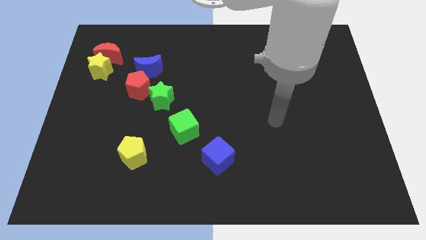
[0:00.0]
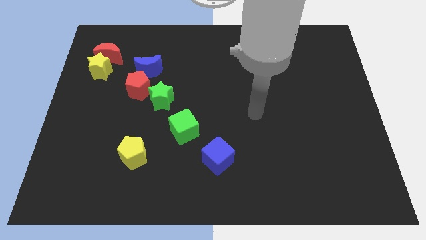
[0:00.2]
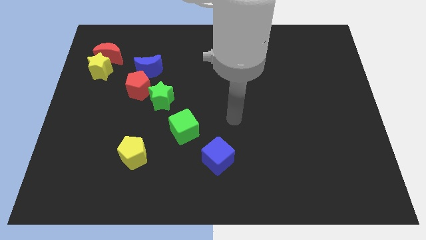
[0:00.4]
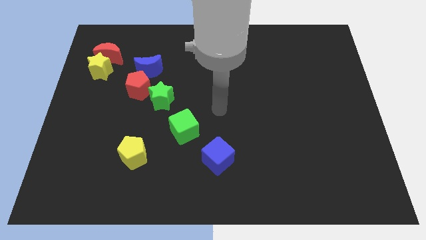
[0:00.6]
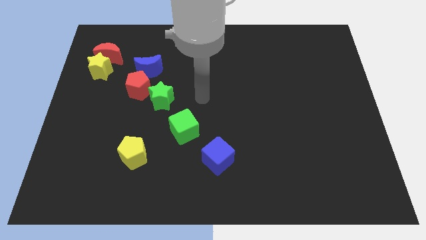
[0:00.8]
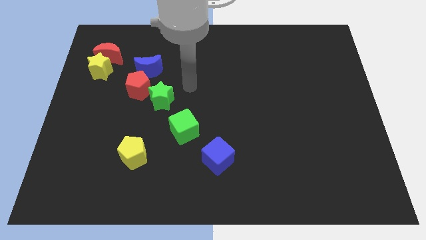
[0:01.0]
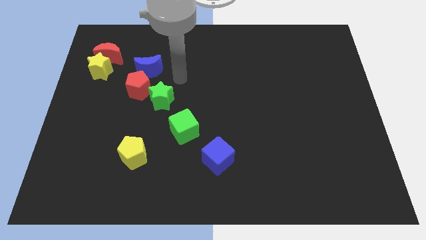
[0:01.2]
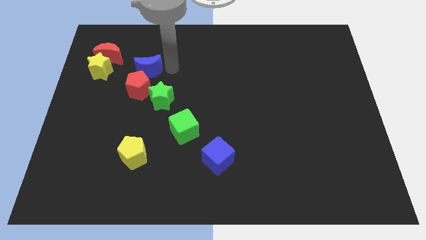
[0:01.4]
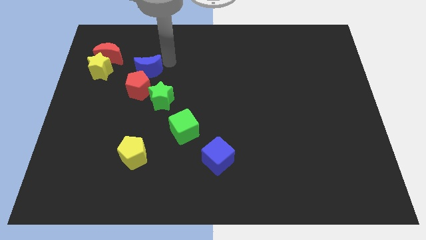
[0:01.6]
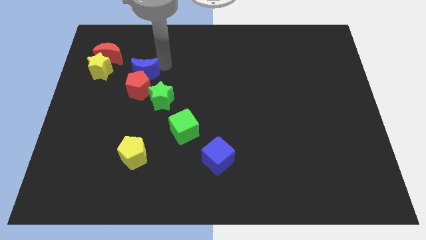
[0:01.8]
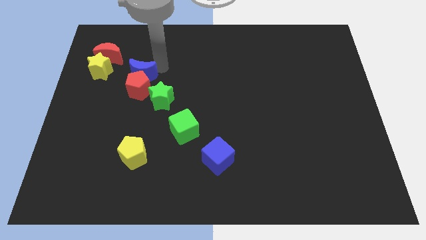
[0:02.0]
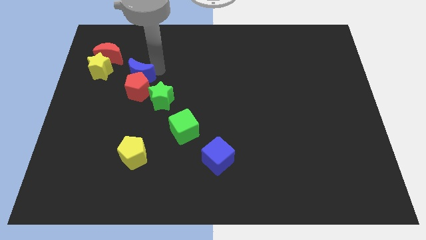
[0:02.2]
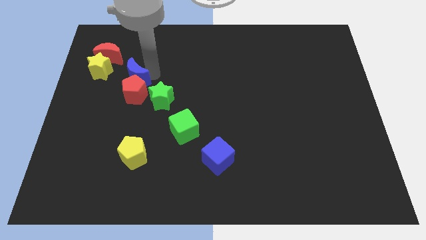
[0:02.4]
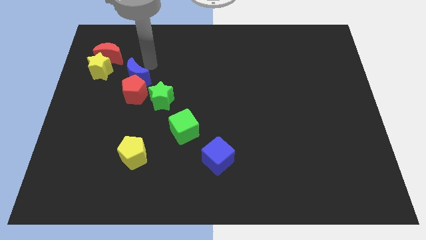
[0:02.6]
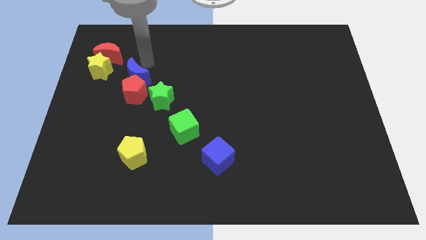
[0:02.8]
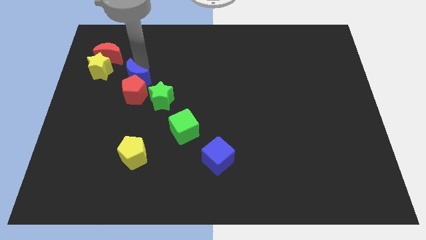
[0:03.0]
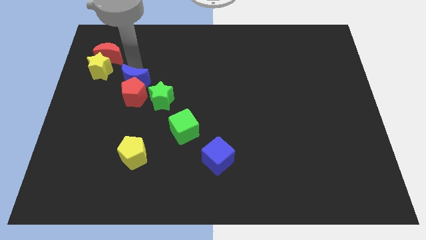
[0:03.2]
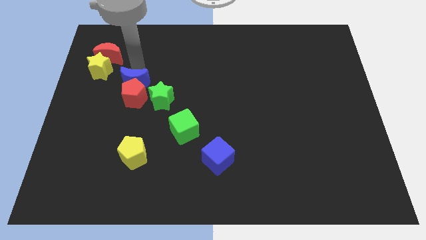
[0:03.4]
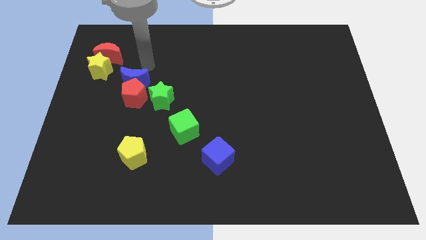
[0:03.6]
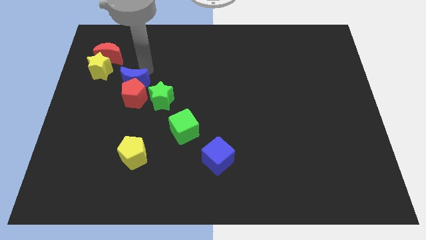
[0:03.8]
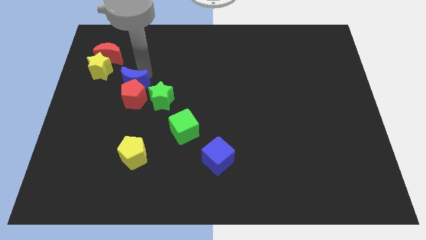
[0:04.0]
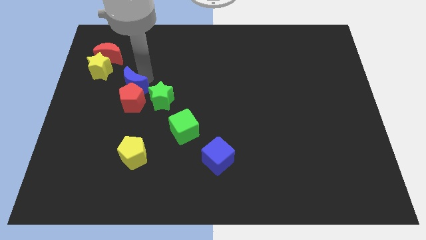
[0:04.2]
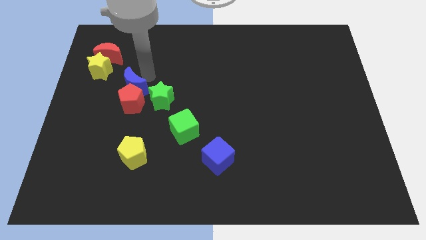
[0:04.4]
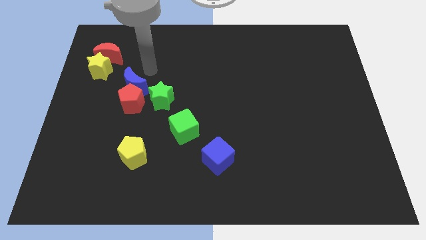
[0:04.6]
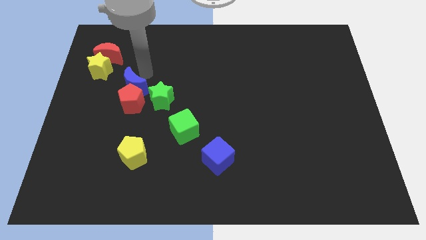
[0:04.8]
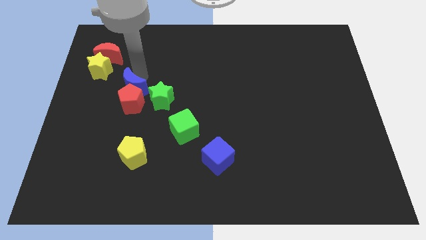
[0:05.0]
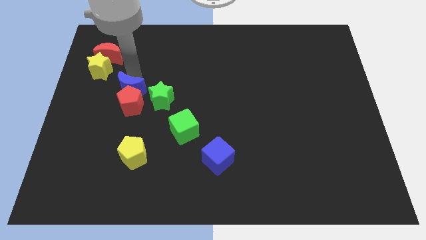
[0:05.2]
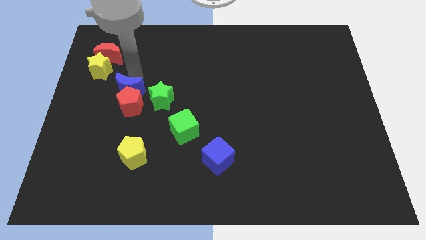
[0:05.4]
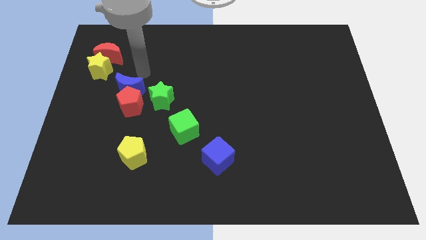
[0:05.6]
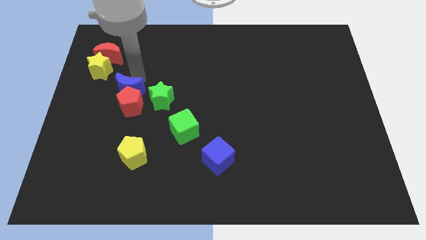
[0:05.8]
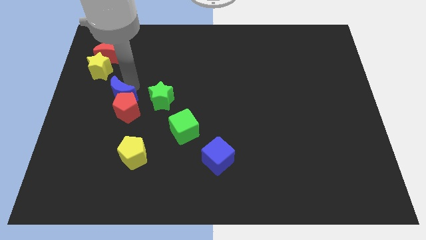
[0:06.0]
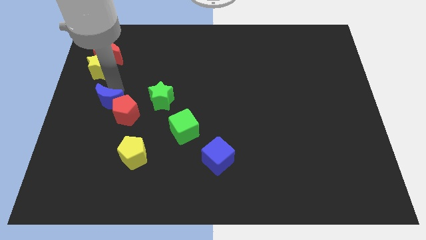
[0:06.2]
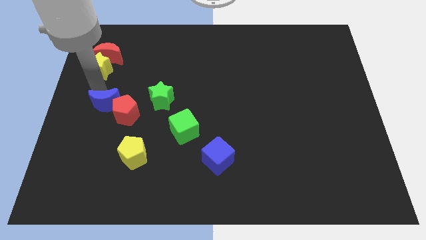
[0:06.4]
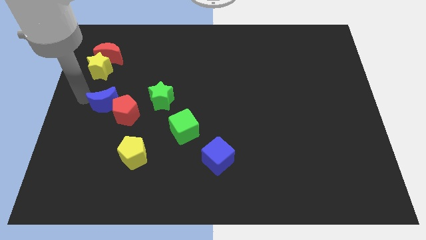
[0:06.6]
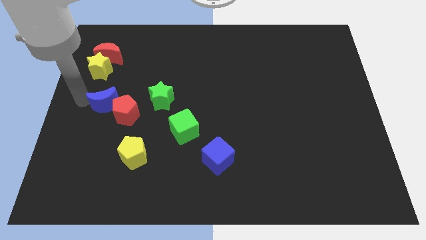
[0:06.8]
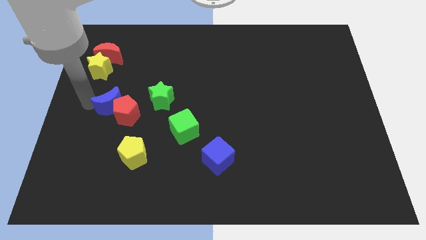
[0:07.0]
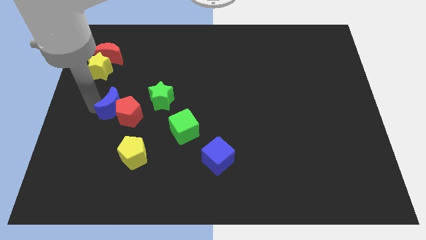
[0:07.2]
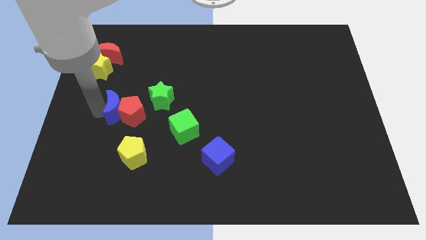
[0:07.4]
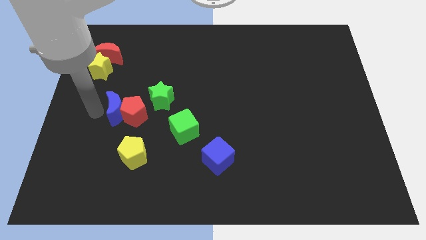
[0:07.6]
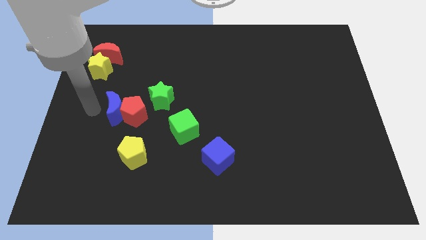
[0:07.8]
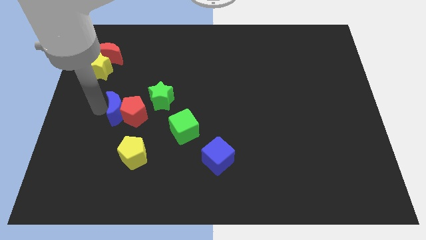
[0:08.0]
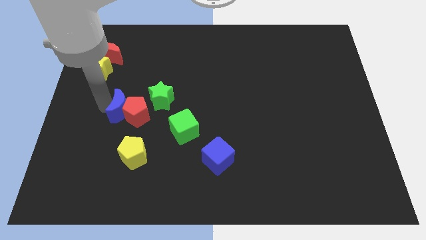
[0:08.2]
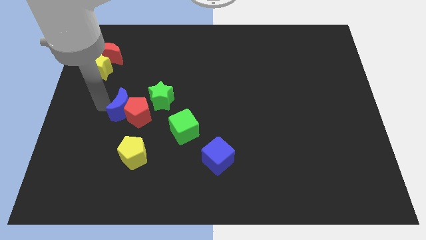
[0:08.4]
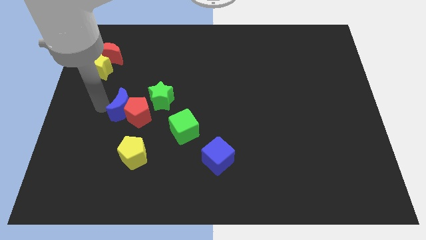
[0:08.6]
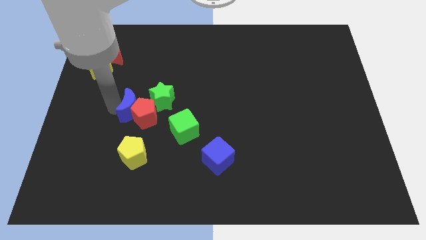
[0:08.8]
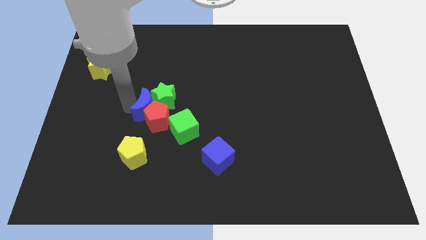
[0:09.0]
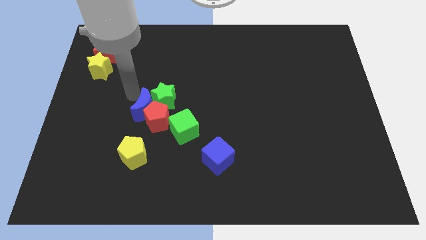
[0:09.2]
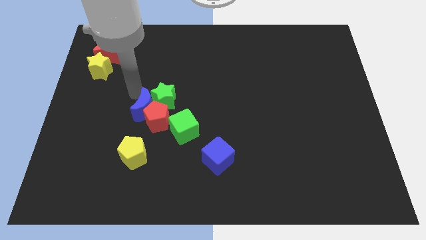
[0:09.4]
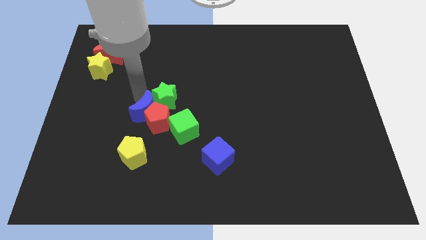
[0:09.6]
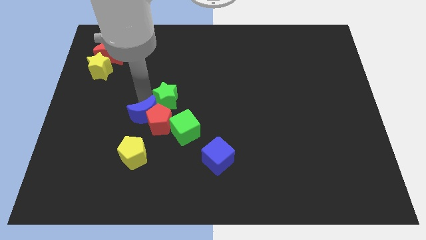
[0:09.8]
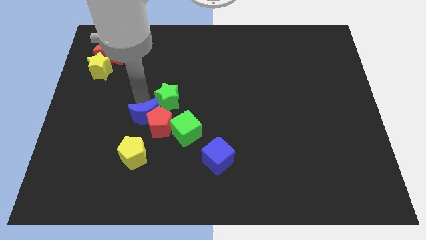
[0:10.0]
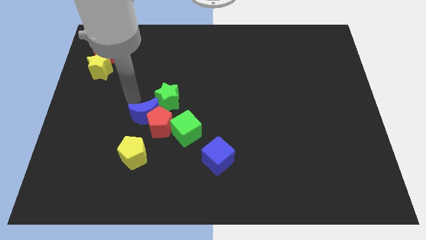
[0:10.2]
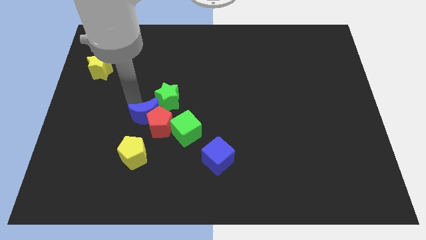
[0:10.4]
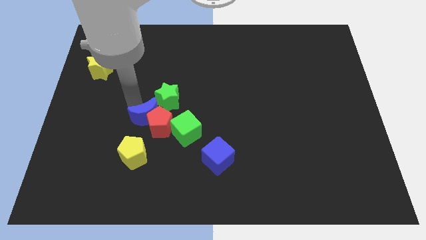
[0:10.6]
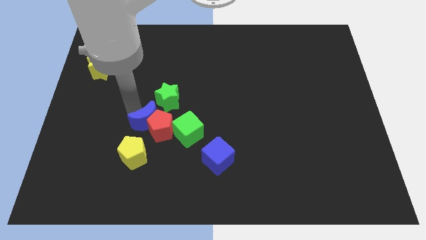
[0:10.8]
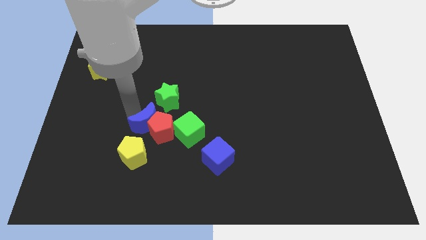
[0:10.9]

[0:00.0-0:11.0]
slide the blue moon to the top right of the yellow pentagon
